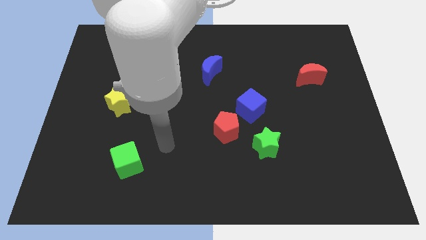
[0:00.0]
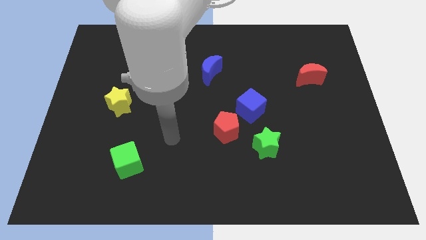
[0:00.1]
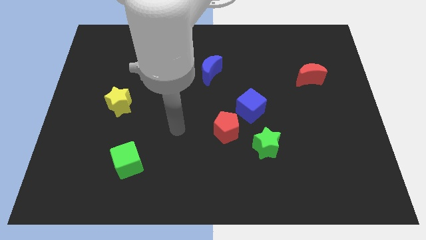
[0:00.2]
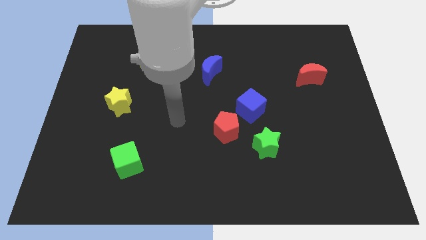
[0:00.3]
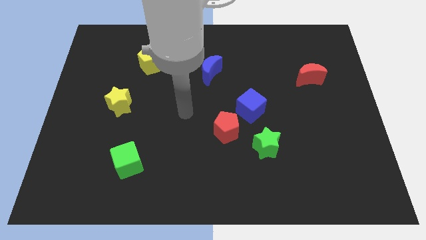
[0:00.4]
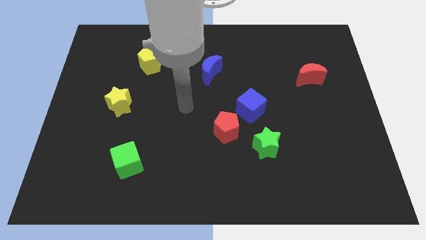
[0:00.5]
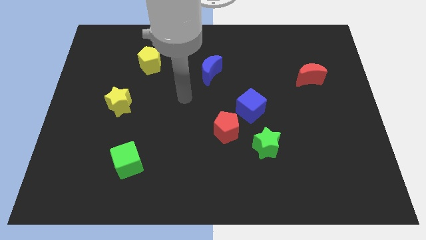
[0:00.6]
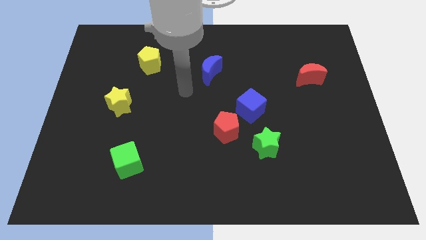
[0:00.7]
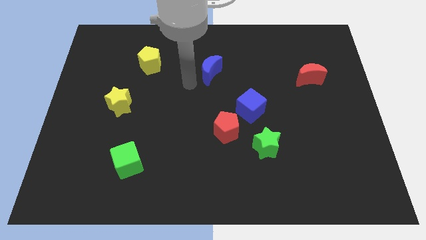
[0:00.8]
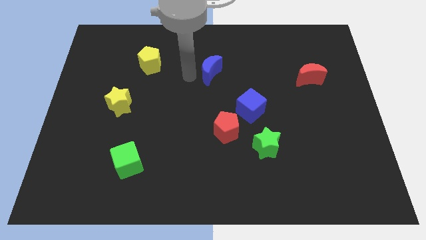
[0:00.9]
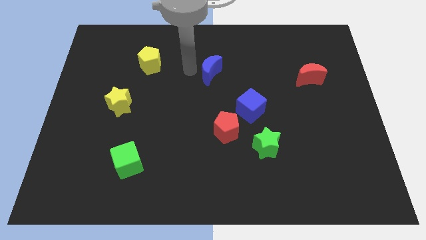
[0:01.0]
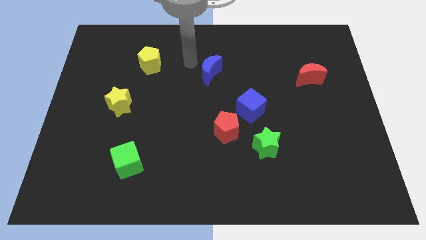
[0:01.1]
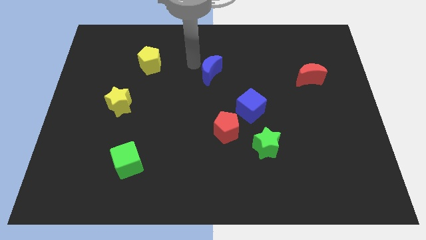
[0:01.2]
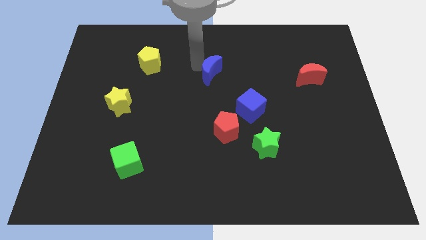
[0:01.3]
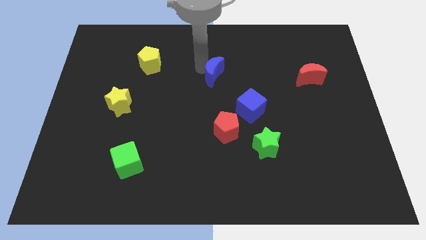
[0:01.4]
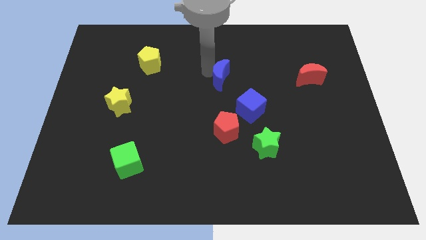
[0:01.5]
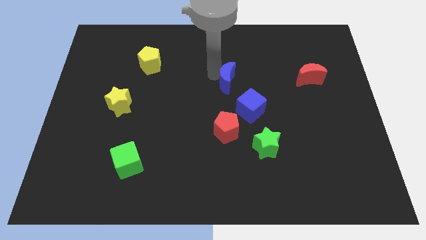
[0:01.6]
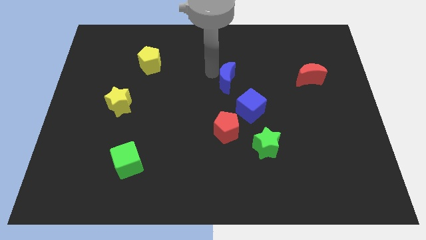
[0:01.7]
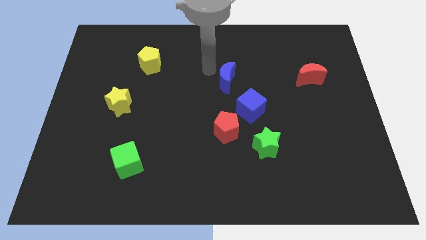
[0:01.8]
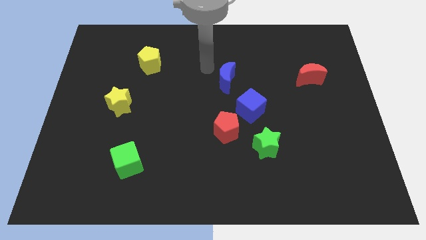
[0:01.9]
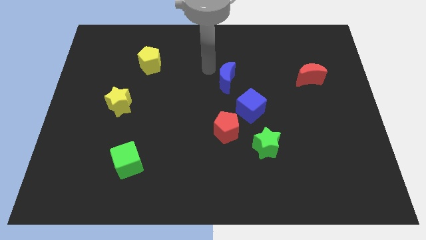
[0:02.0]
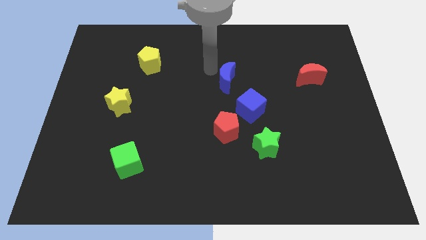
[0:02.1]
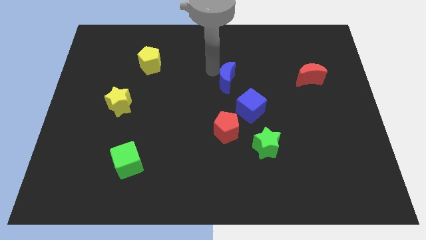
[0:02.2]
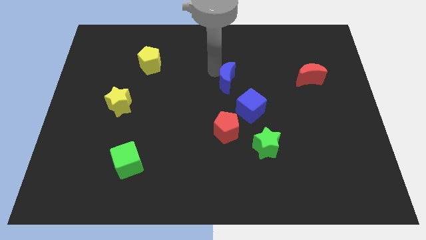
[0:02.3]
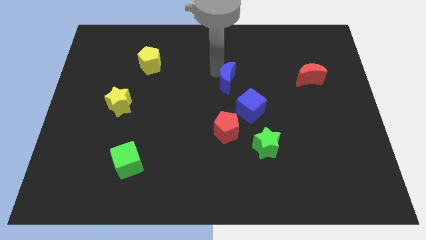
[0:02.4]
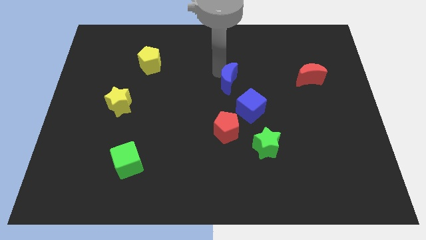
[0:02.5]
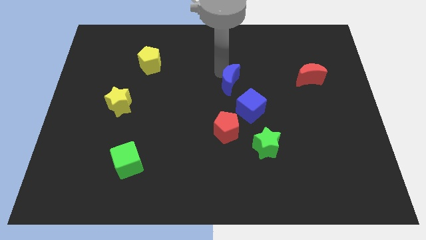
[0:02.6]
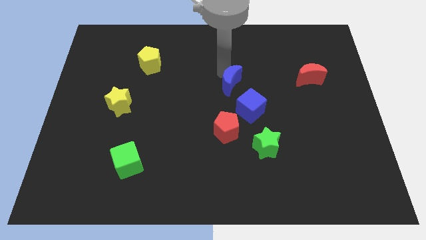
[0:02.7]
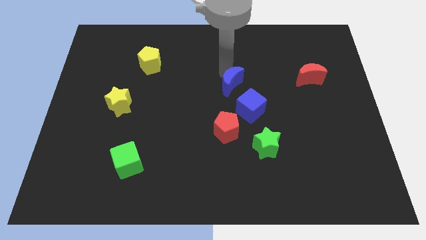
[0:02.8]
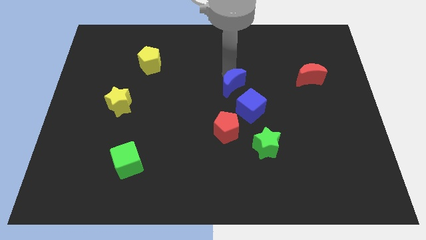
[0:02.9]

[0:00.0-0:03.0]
slightly push the blue moon downwards and to the right diagonally

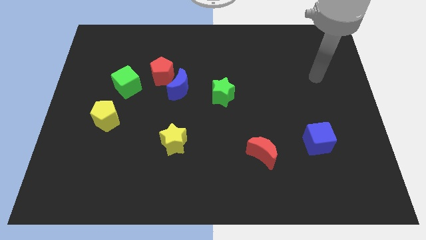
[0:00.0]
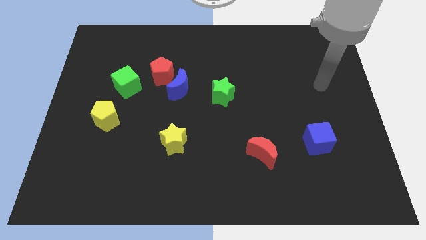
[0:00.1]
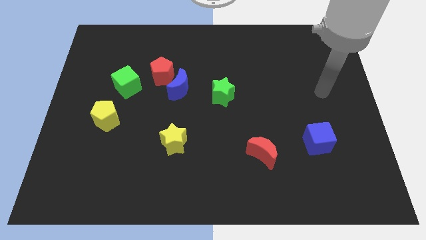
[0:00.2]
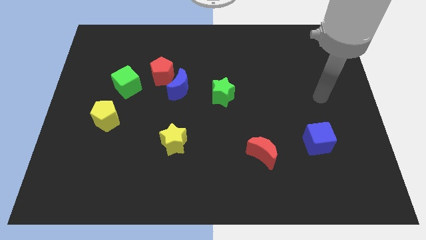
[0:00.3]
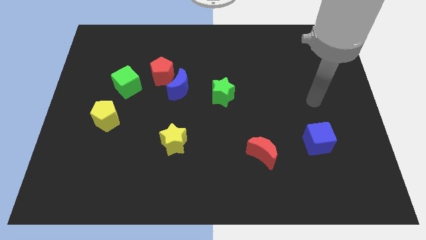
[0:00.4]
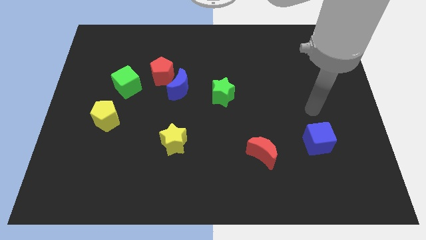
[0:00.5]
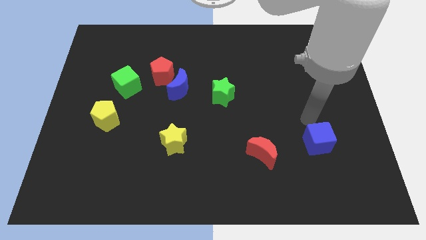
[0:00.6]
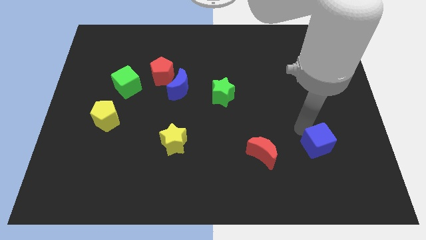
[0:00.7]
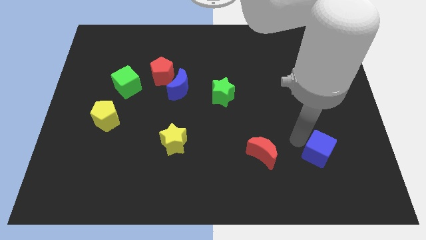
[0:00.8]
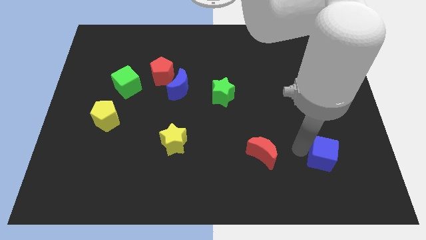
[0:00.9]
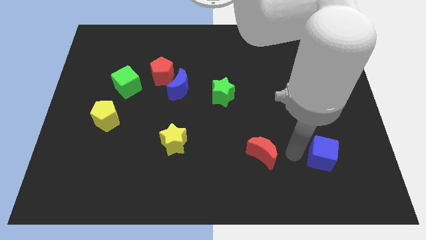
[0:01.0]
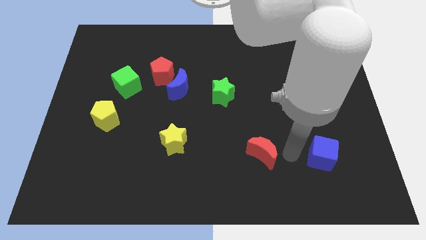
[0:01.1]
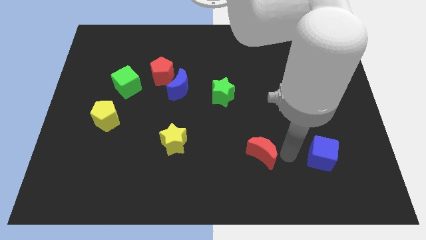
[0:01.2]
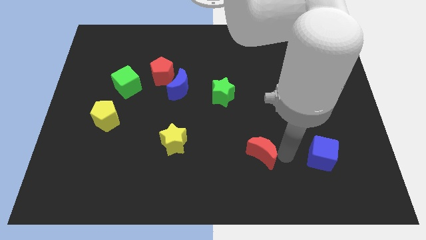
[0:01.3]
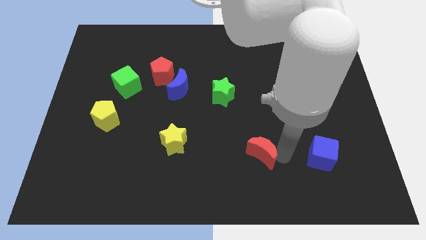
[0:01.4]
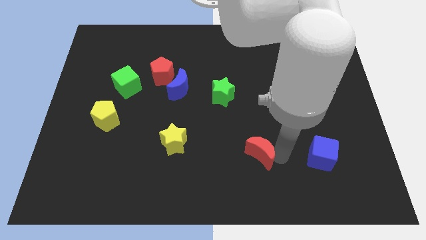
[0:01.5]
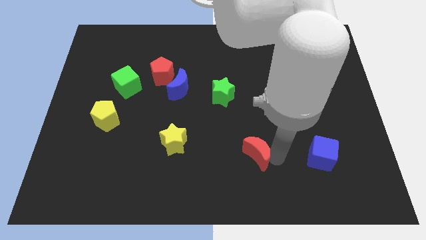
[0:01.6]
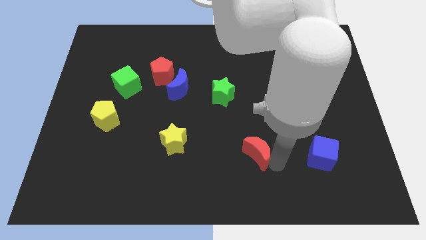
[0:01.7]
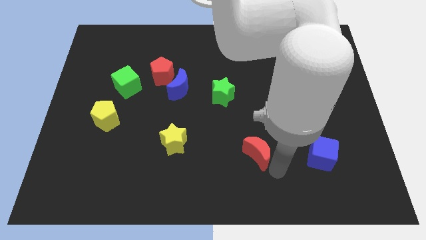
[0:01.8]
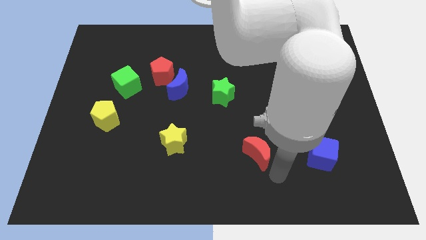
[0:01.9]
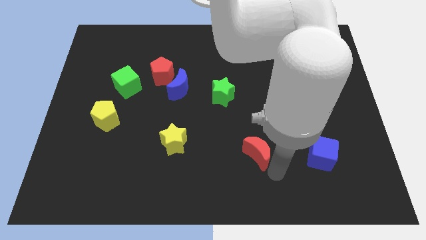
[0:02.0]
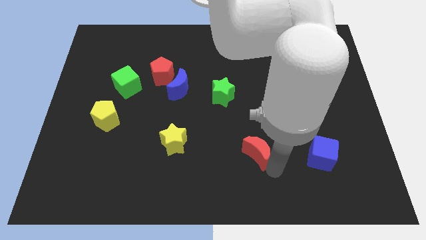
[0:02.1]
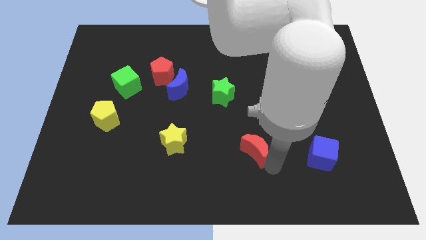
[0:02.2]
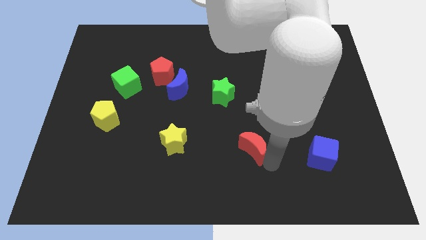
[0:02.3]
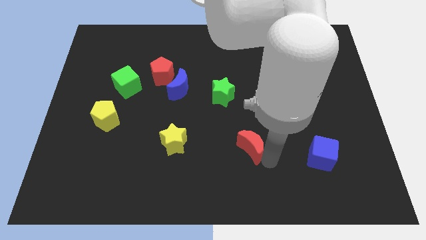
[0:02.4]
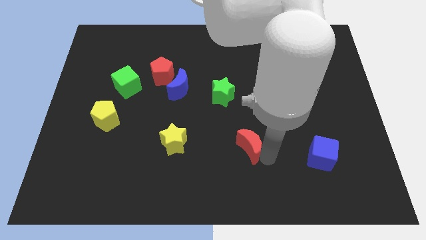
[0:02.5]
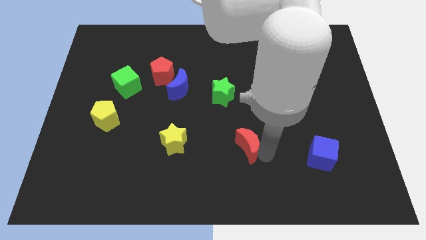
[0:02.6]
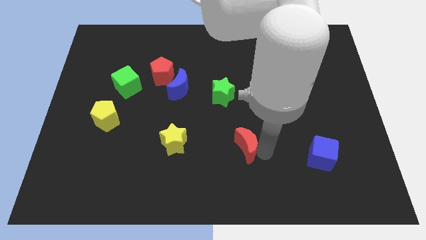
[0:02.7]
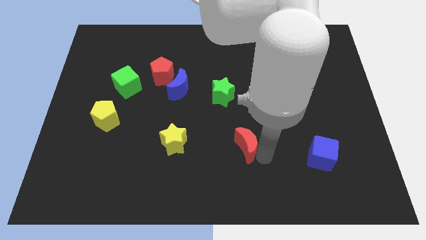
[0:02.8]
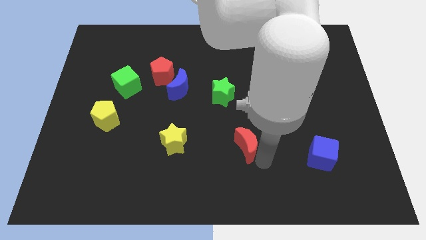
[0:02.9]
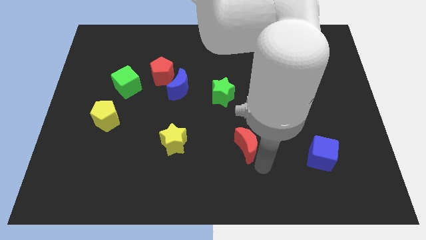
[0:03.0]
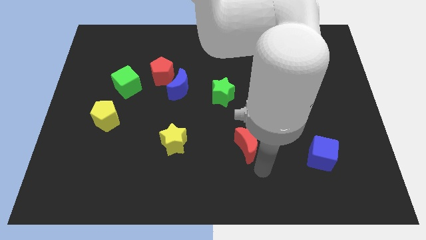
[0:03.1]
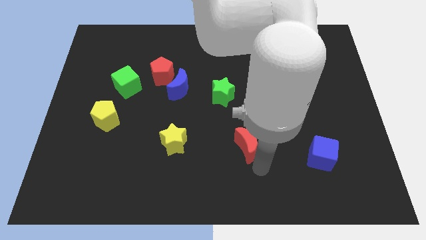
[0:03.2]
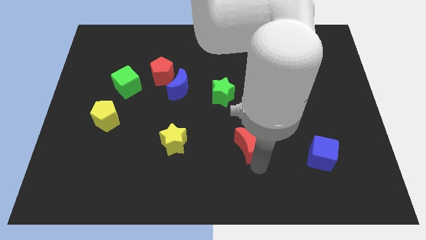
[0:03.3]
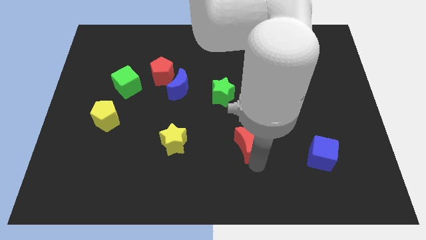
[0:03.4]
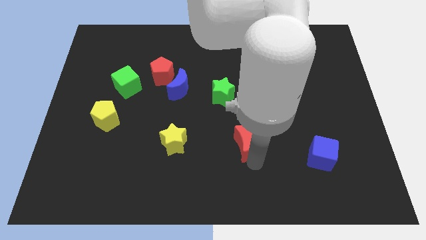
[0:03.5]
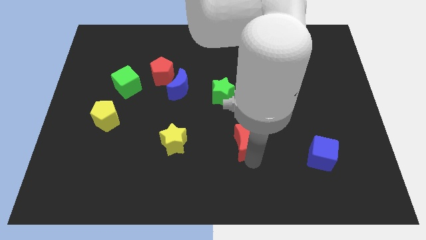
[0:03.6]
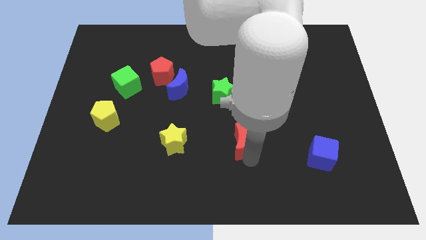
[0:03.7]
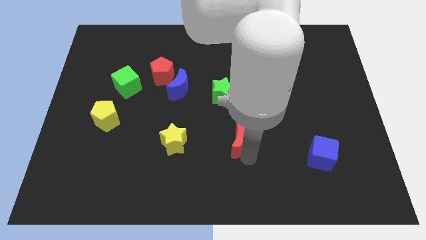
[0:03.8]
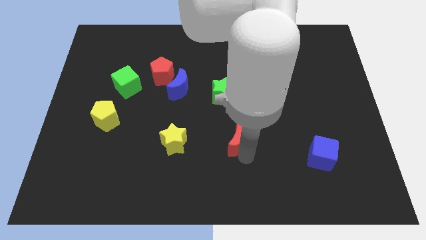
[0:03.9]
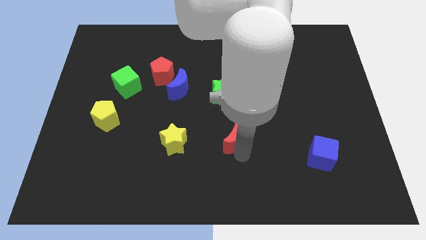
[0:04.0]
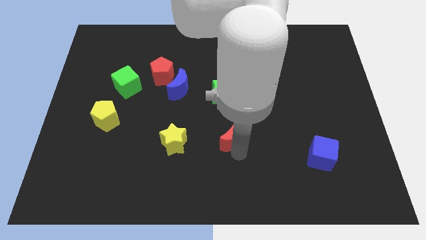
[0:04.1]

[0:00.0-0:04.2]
slightly move the red moon upwards and then to the left

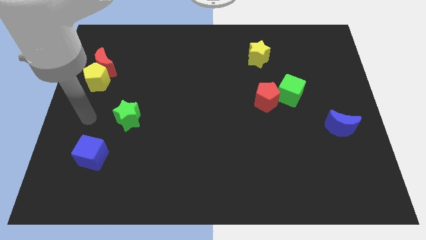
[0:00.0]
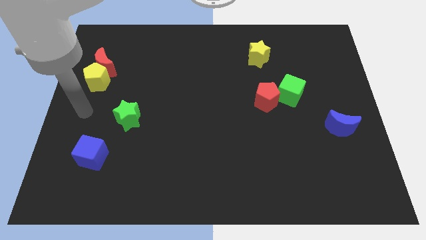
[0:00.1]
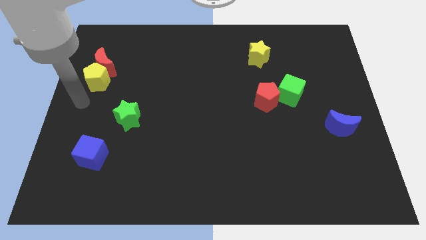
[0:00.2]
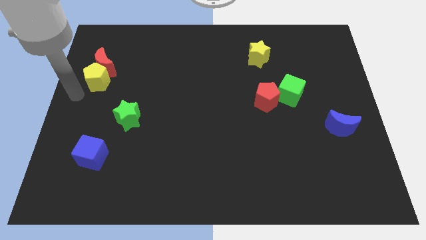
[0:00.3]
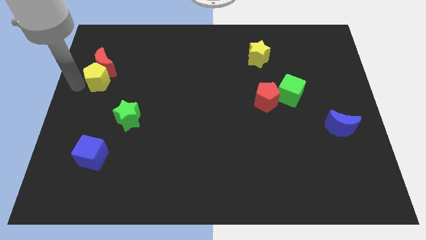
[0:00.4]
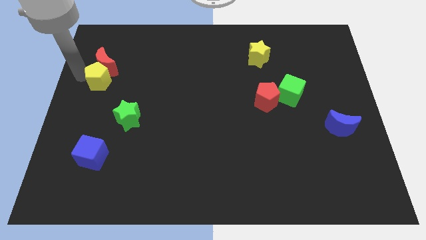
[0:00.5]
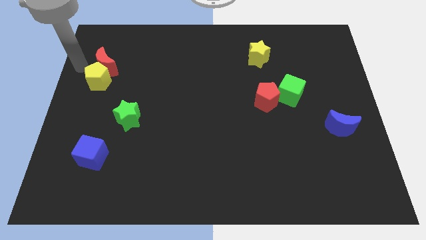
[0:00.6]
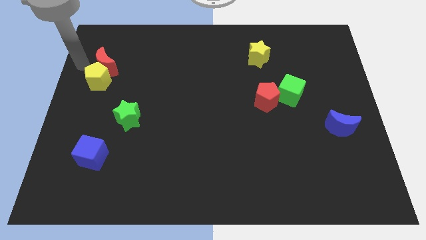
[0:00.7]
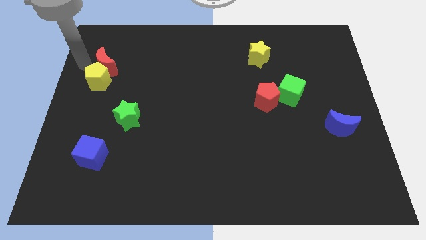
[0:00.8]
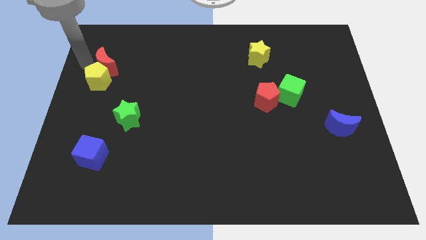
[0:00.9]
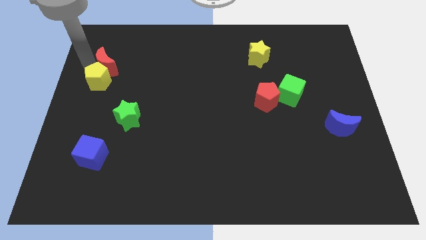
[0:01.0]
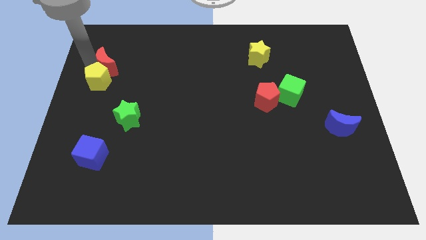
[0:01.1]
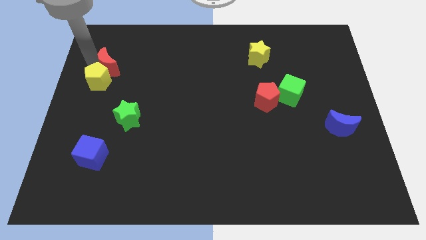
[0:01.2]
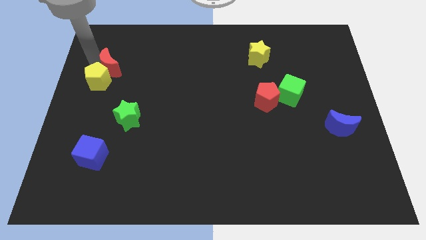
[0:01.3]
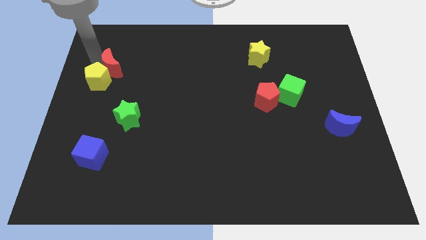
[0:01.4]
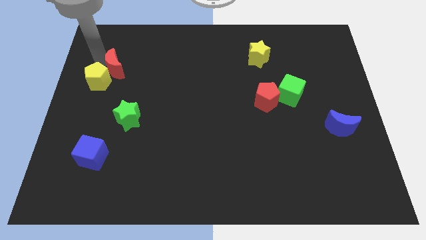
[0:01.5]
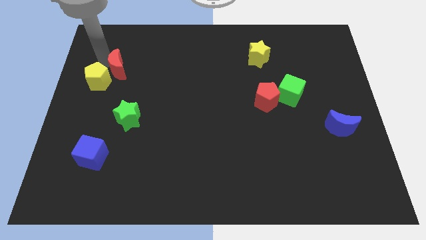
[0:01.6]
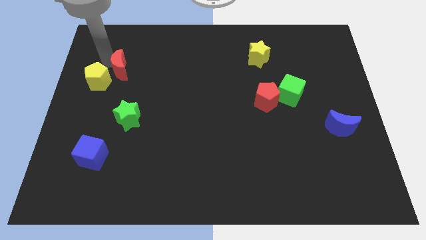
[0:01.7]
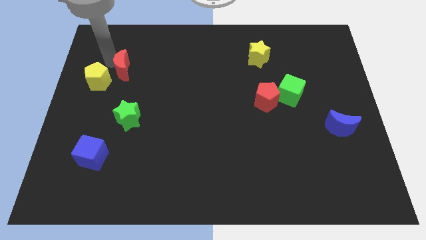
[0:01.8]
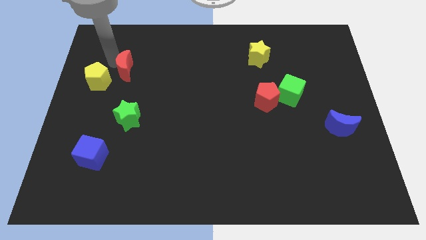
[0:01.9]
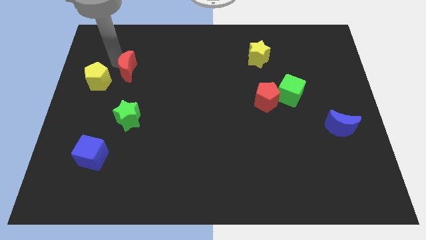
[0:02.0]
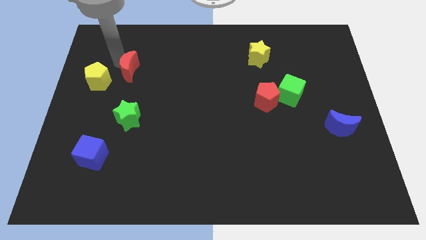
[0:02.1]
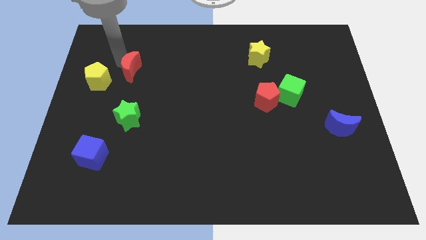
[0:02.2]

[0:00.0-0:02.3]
slightly push the red moon to the right
